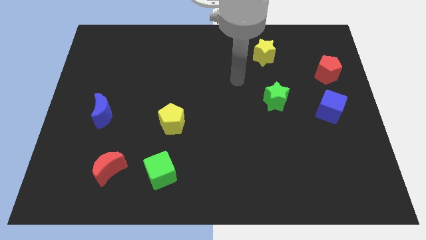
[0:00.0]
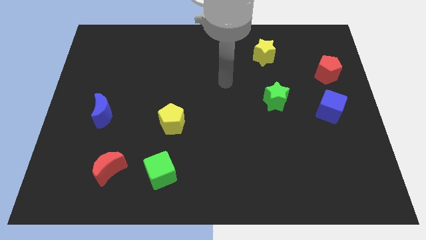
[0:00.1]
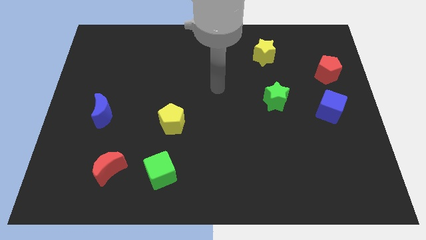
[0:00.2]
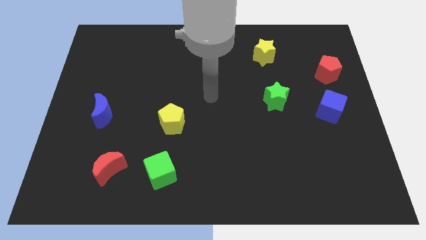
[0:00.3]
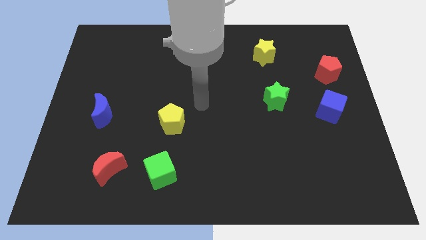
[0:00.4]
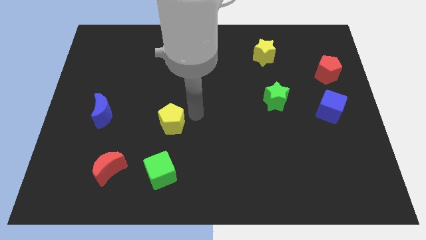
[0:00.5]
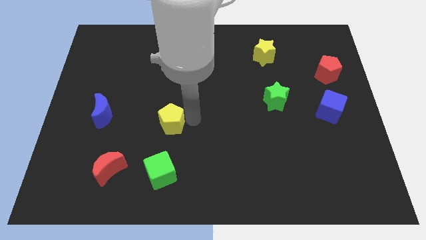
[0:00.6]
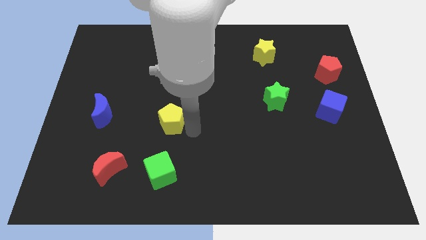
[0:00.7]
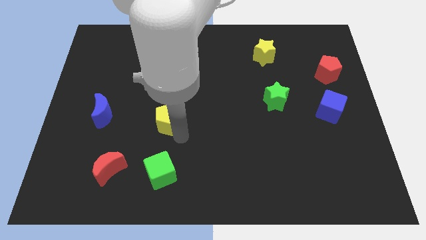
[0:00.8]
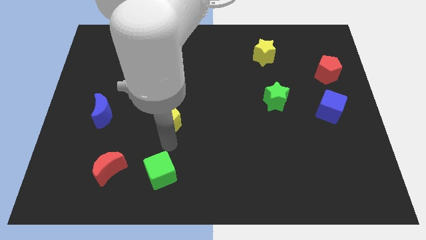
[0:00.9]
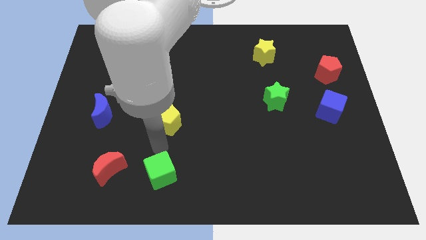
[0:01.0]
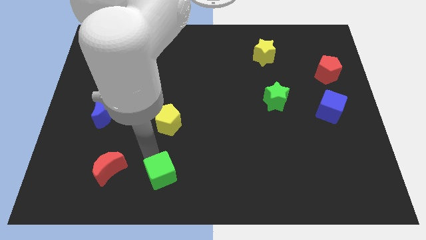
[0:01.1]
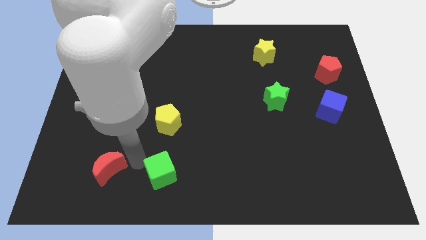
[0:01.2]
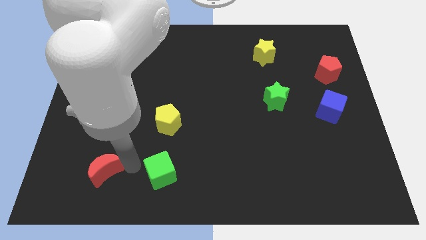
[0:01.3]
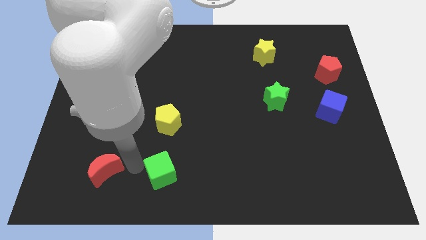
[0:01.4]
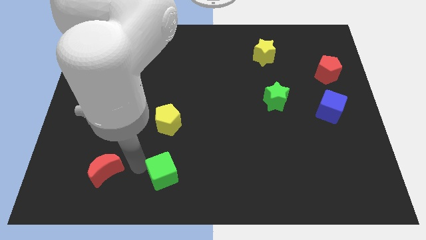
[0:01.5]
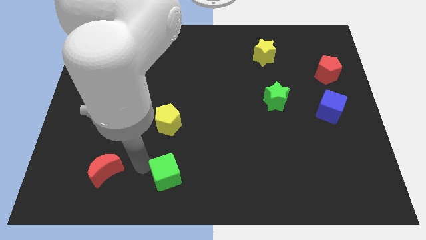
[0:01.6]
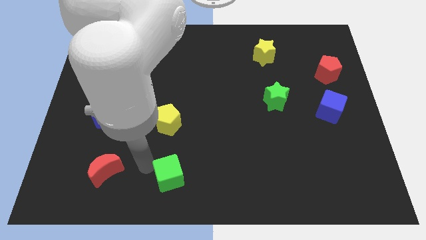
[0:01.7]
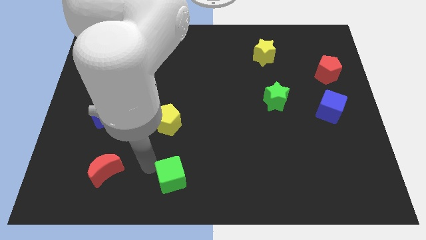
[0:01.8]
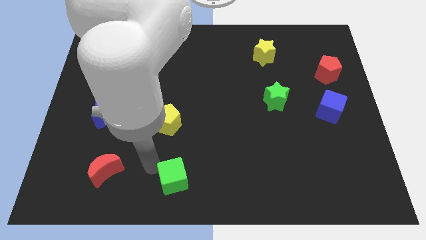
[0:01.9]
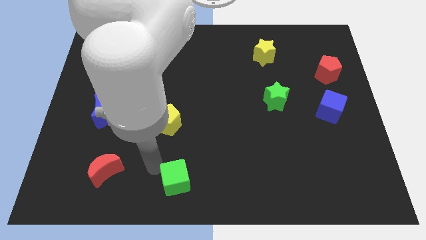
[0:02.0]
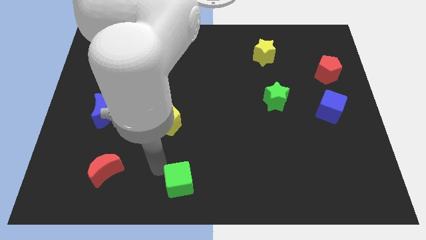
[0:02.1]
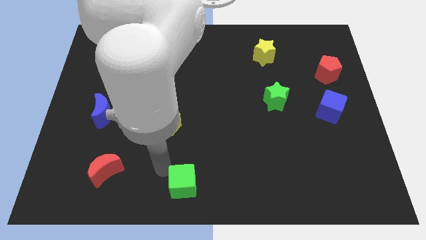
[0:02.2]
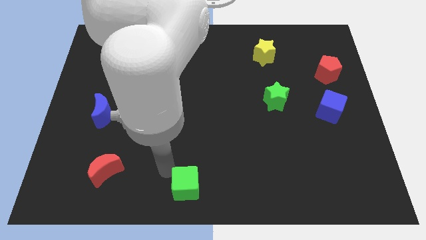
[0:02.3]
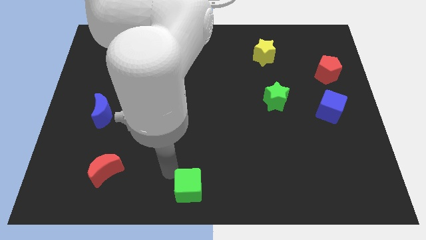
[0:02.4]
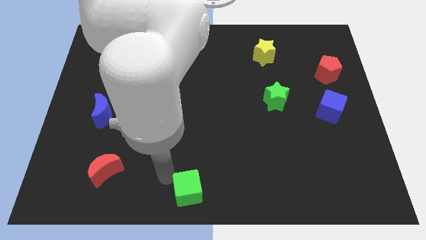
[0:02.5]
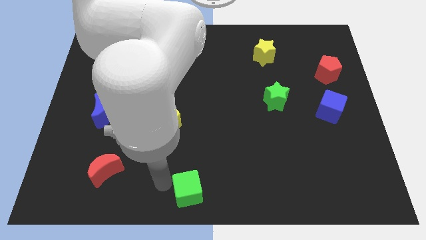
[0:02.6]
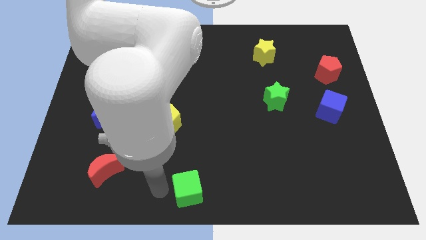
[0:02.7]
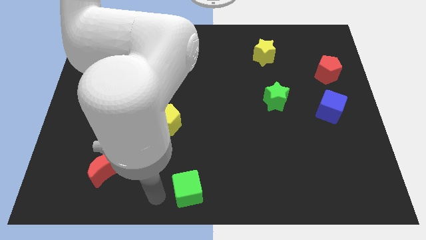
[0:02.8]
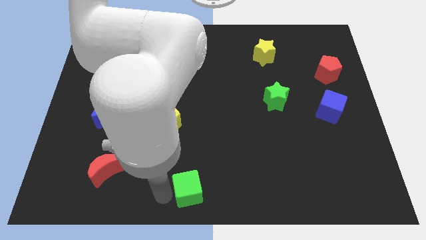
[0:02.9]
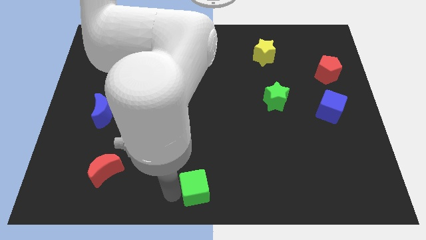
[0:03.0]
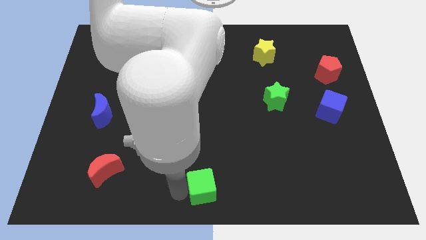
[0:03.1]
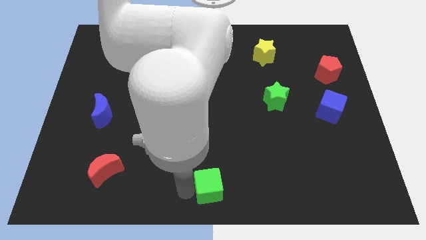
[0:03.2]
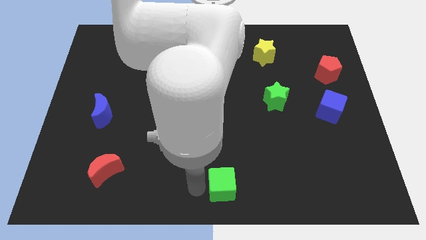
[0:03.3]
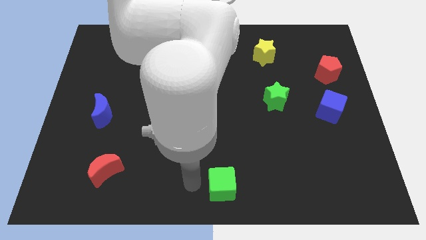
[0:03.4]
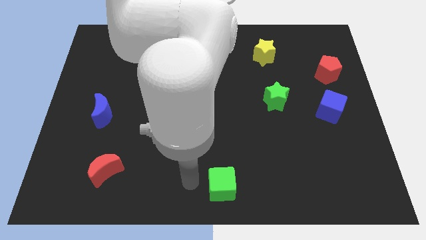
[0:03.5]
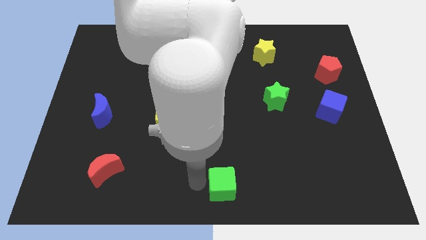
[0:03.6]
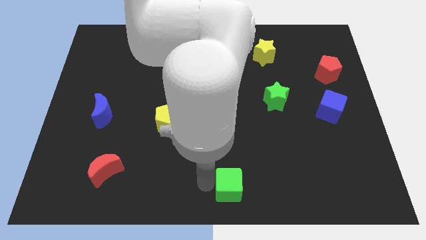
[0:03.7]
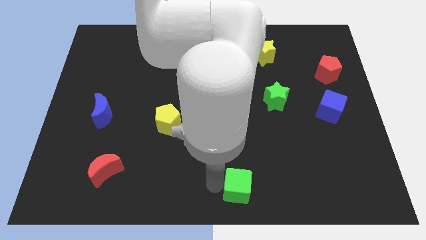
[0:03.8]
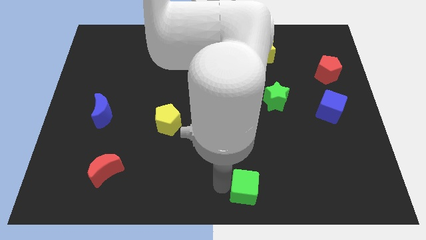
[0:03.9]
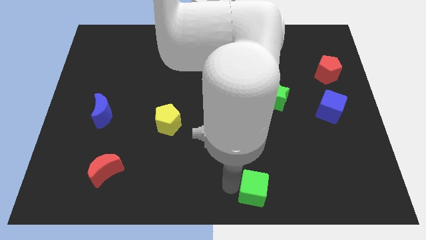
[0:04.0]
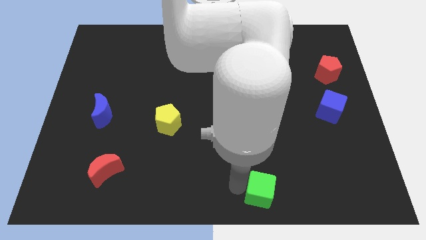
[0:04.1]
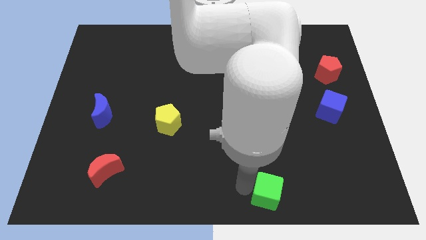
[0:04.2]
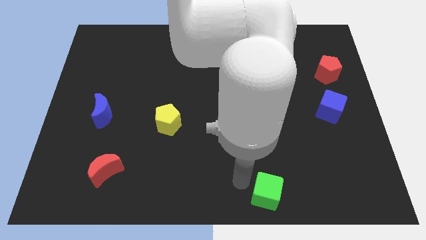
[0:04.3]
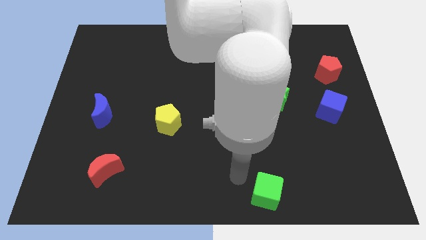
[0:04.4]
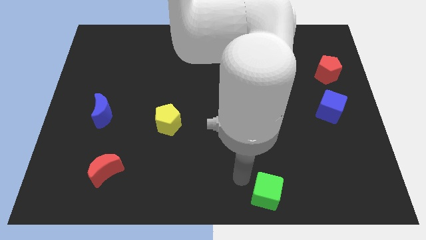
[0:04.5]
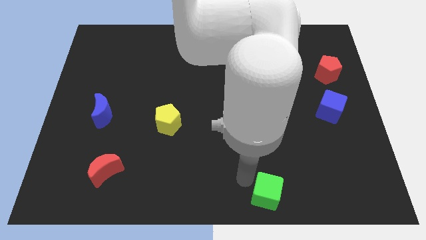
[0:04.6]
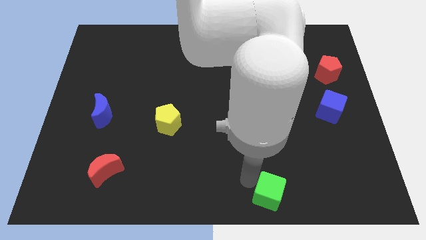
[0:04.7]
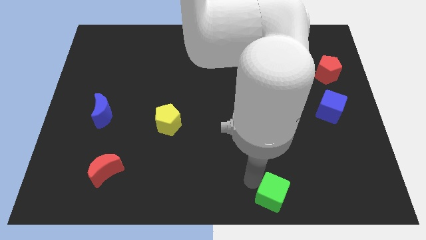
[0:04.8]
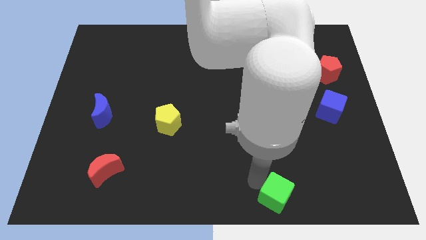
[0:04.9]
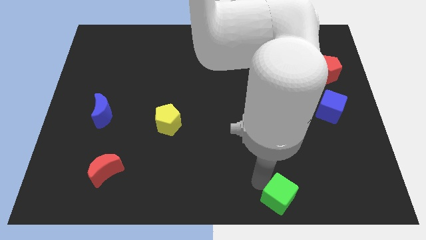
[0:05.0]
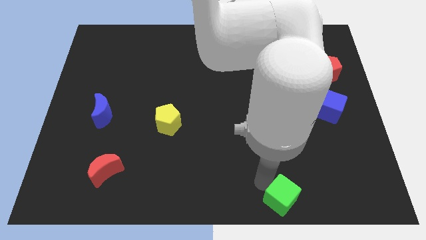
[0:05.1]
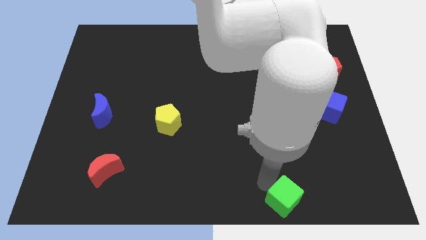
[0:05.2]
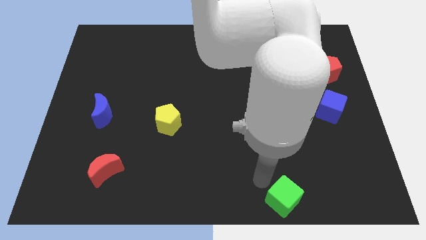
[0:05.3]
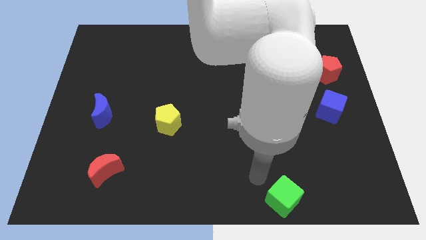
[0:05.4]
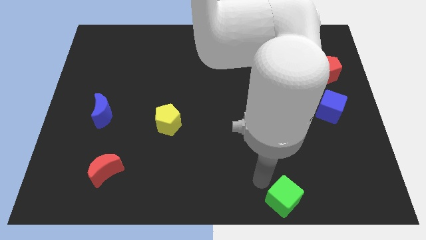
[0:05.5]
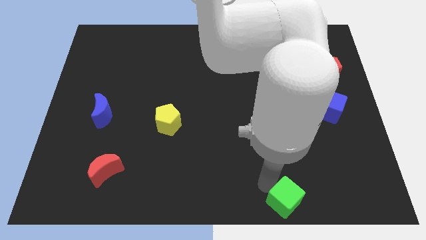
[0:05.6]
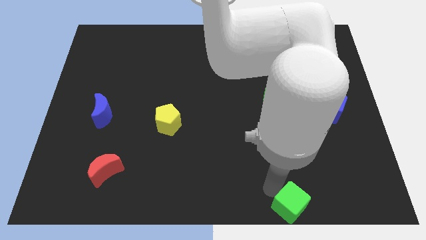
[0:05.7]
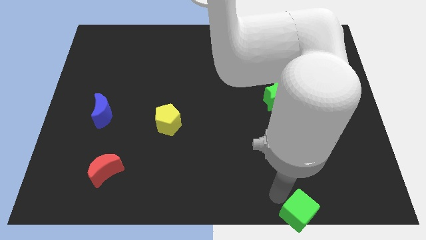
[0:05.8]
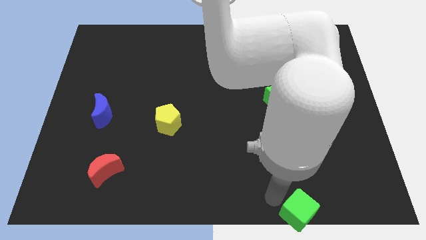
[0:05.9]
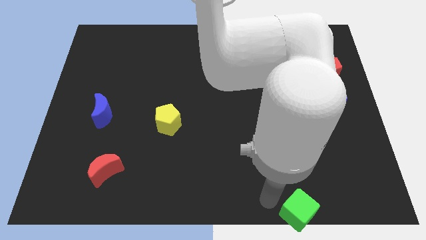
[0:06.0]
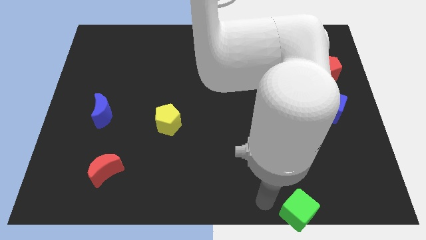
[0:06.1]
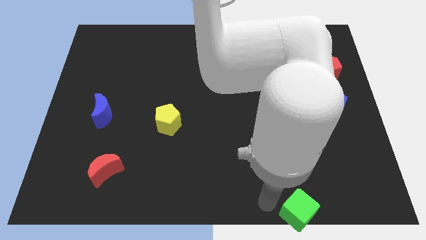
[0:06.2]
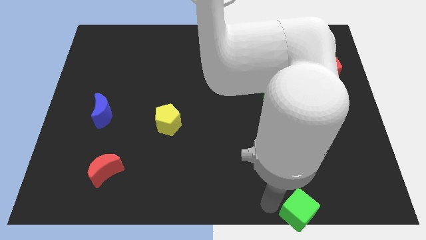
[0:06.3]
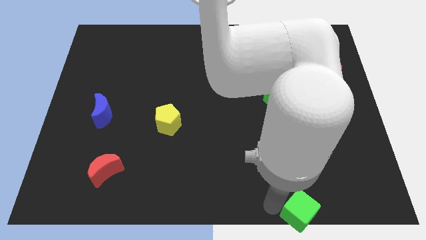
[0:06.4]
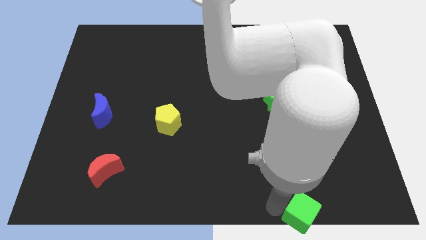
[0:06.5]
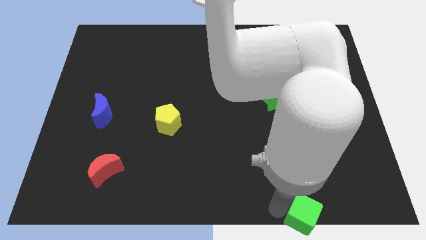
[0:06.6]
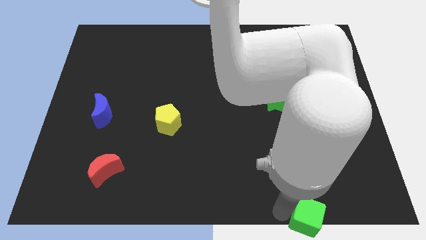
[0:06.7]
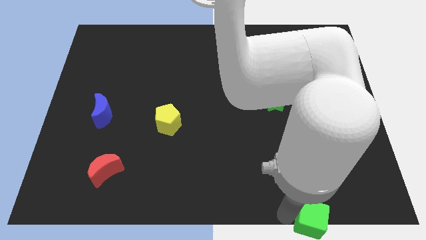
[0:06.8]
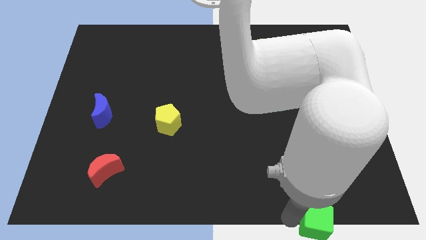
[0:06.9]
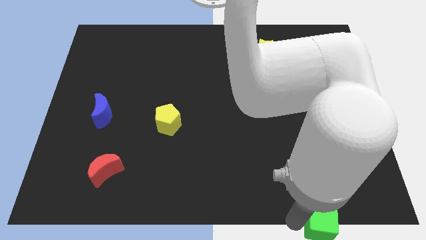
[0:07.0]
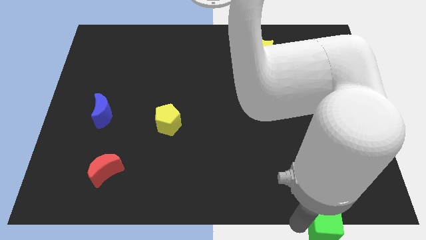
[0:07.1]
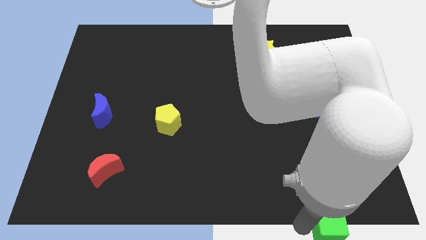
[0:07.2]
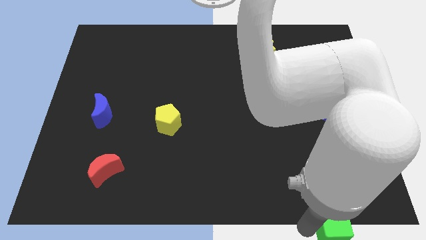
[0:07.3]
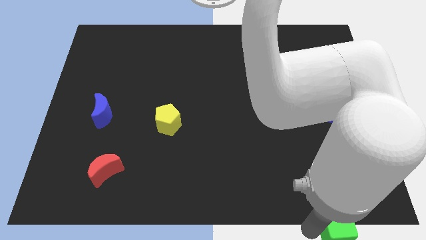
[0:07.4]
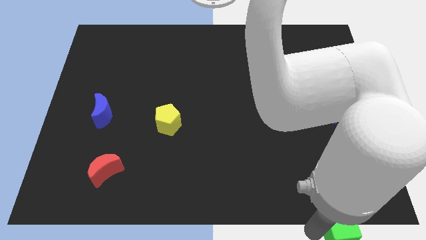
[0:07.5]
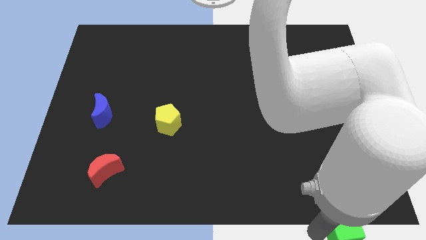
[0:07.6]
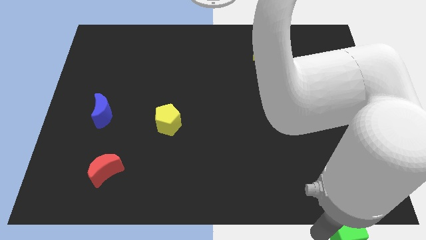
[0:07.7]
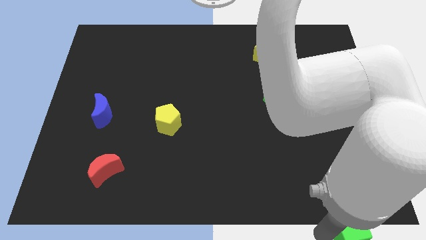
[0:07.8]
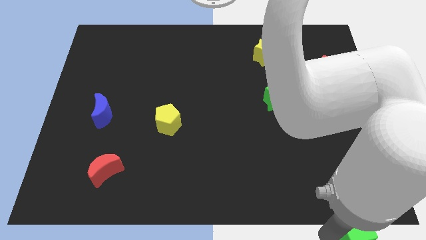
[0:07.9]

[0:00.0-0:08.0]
push the green cube to the bottom right of the board
